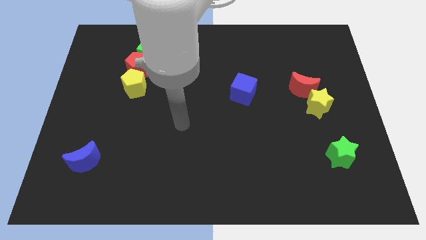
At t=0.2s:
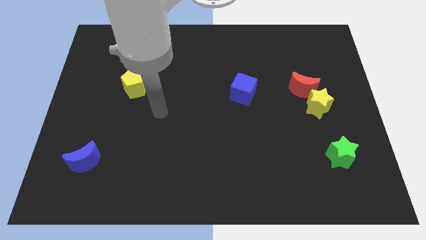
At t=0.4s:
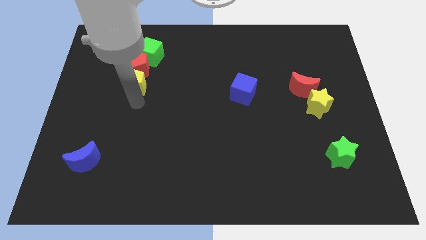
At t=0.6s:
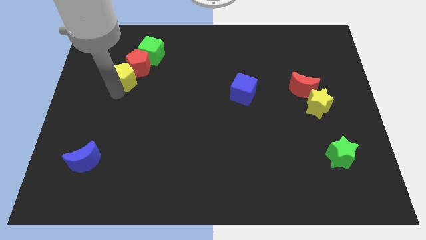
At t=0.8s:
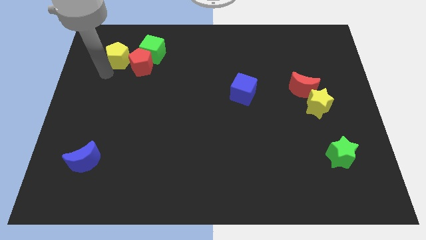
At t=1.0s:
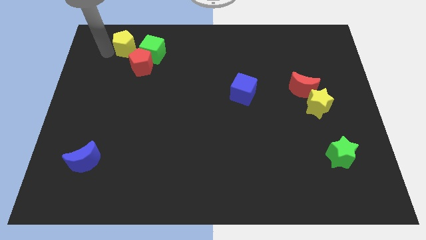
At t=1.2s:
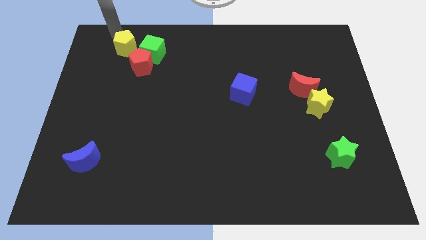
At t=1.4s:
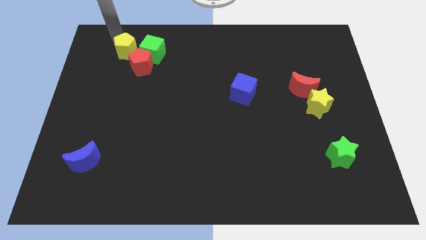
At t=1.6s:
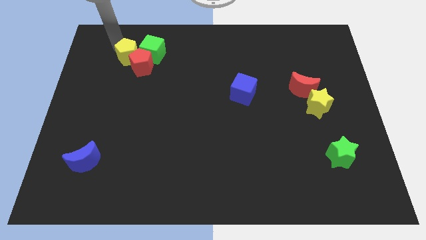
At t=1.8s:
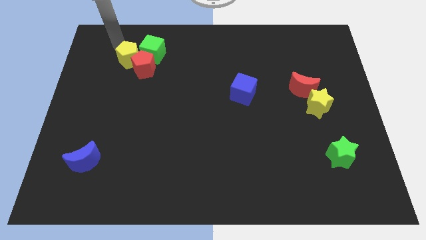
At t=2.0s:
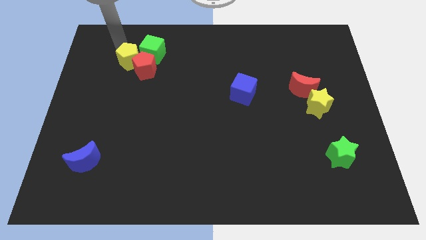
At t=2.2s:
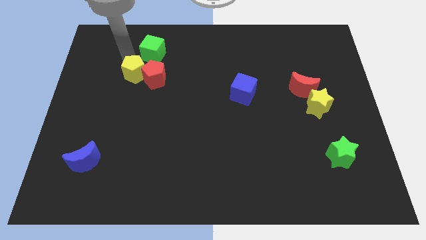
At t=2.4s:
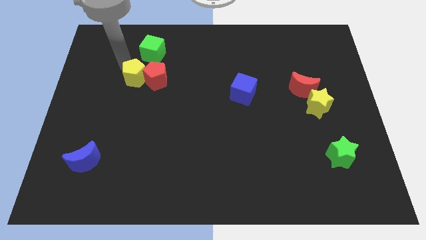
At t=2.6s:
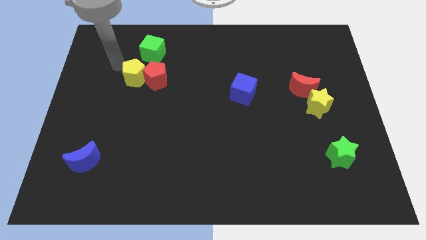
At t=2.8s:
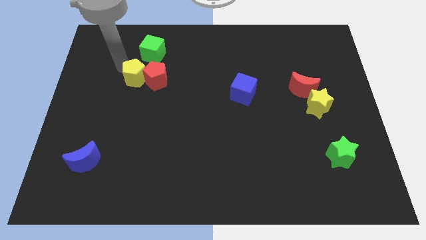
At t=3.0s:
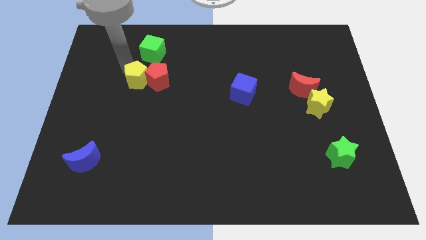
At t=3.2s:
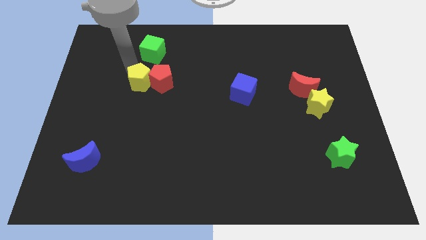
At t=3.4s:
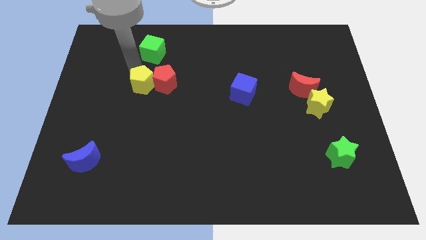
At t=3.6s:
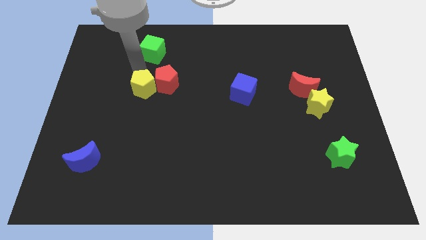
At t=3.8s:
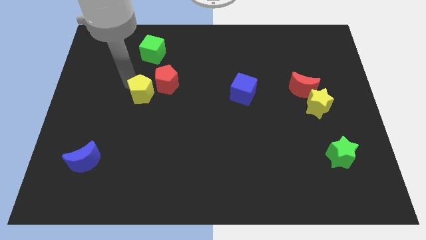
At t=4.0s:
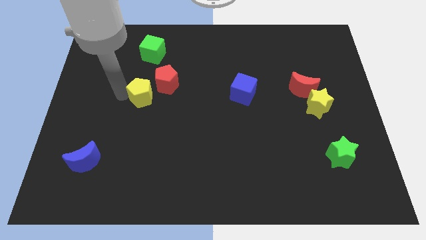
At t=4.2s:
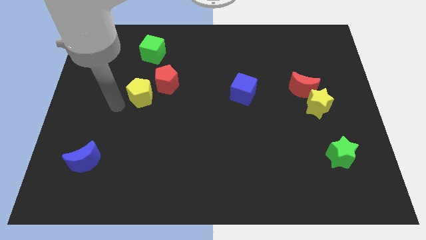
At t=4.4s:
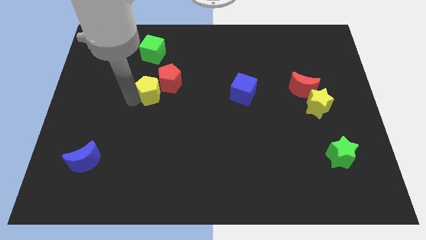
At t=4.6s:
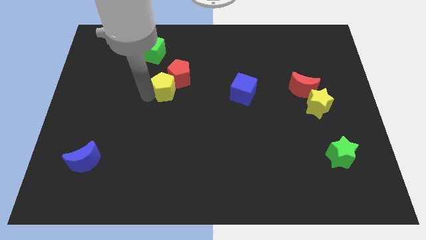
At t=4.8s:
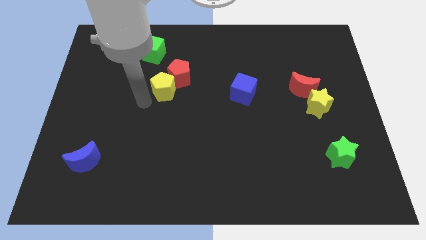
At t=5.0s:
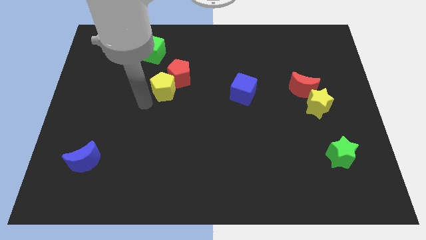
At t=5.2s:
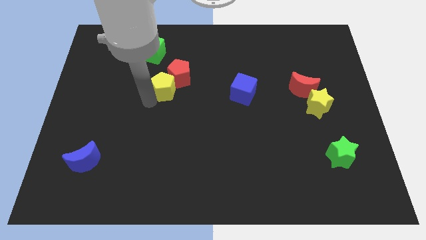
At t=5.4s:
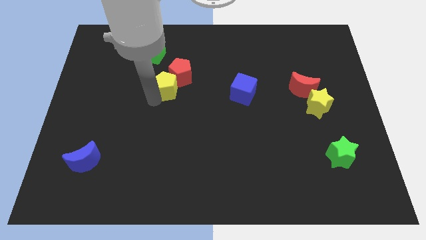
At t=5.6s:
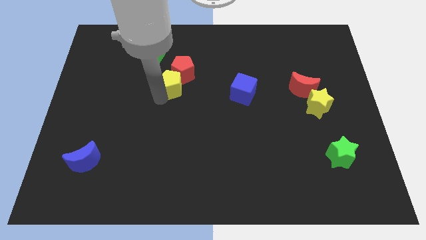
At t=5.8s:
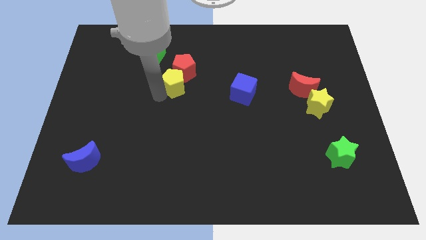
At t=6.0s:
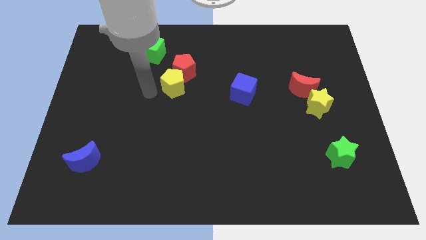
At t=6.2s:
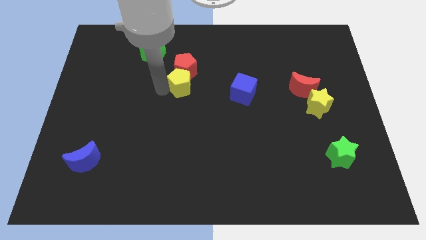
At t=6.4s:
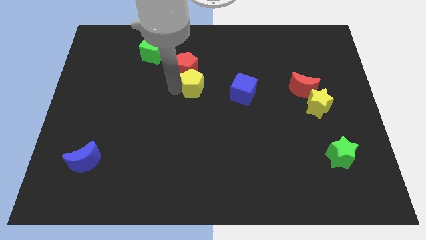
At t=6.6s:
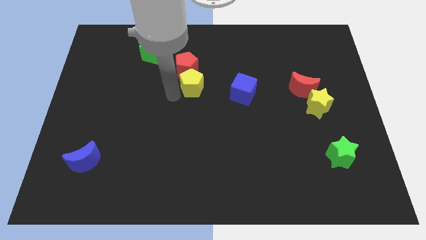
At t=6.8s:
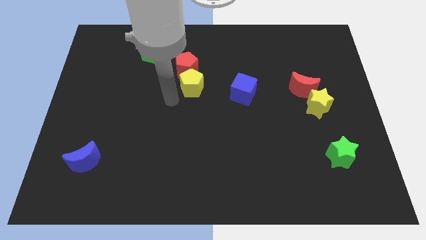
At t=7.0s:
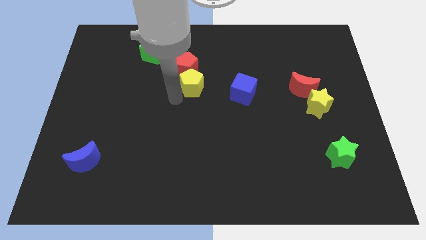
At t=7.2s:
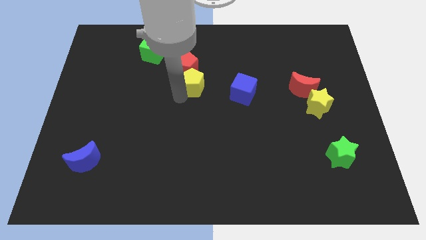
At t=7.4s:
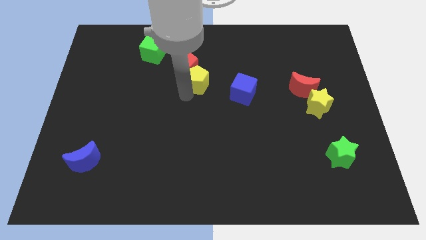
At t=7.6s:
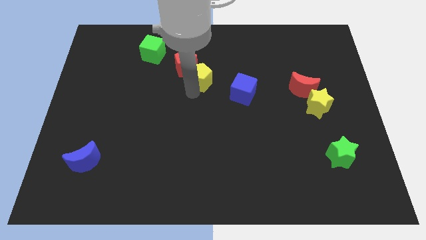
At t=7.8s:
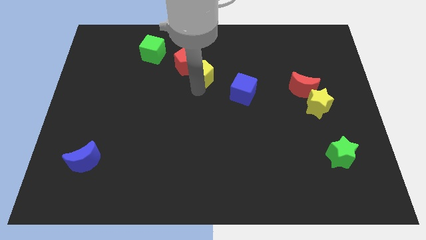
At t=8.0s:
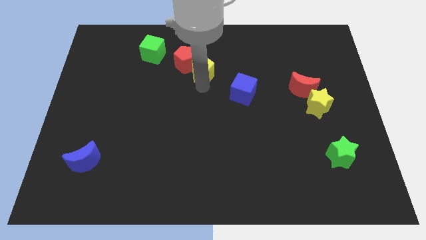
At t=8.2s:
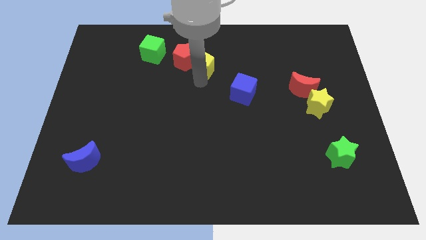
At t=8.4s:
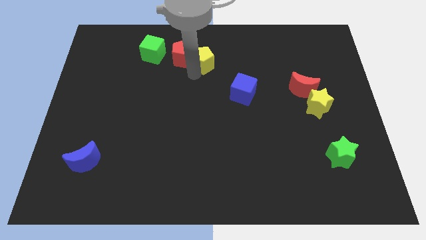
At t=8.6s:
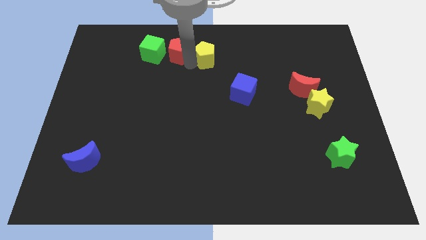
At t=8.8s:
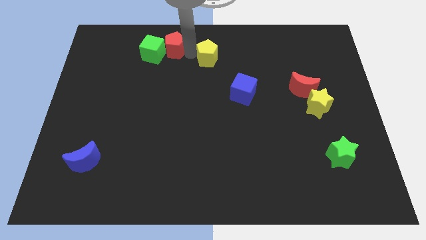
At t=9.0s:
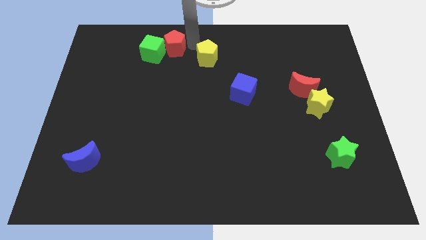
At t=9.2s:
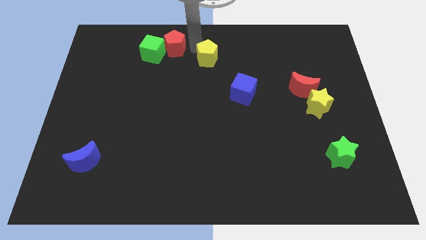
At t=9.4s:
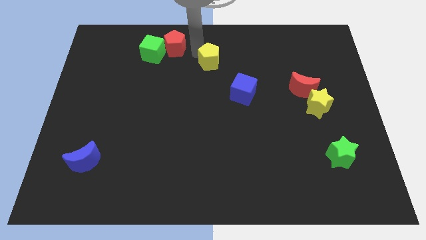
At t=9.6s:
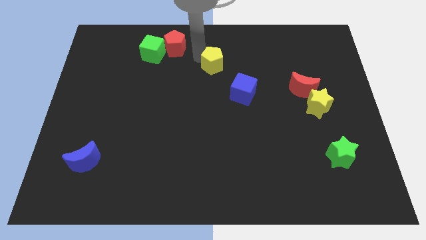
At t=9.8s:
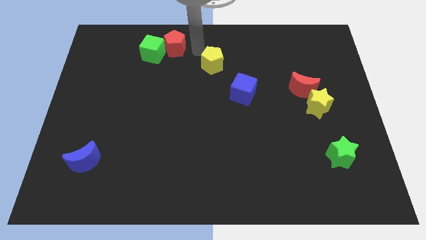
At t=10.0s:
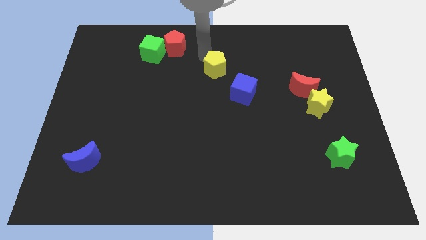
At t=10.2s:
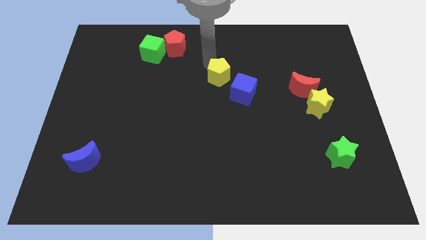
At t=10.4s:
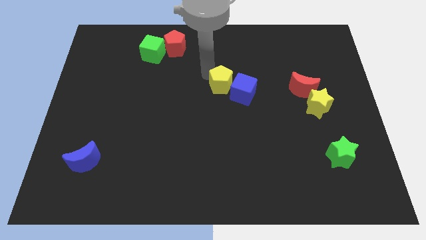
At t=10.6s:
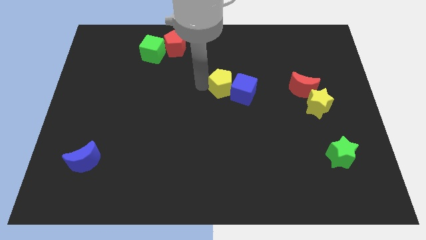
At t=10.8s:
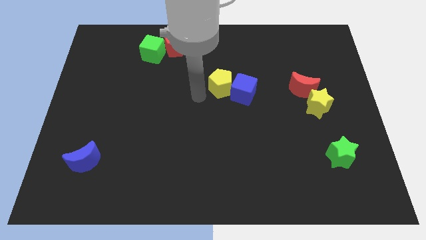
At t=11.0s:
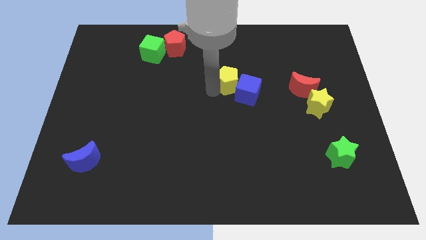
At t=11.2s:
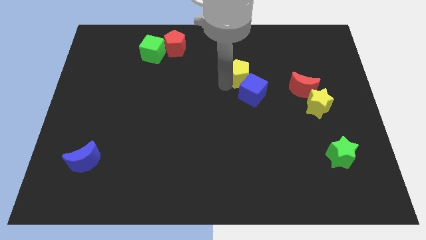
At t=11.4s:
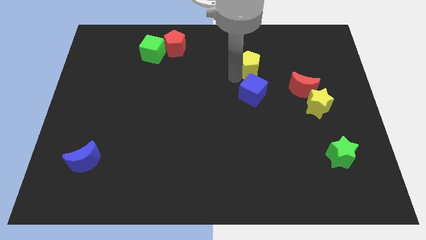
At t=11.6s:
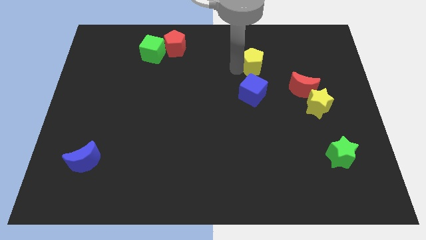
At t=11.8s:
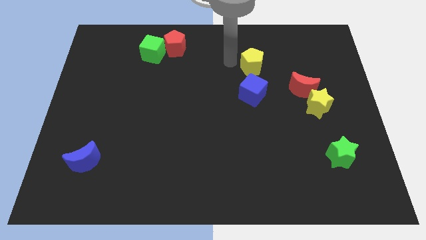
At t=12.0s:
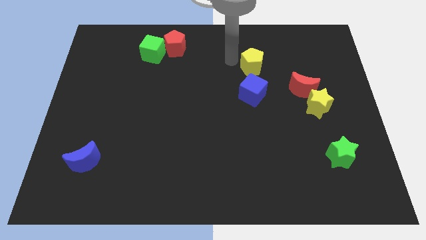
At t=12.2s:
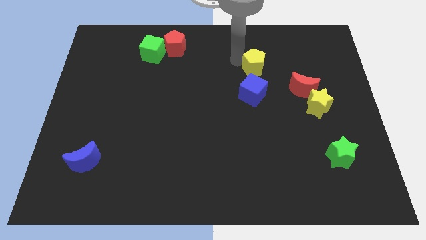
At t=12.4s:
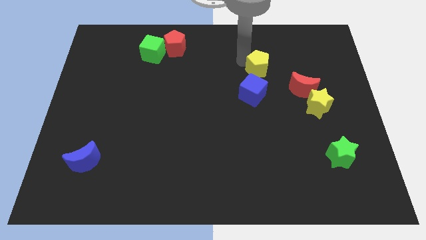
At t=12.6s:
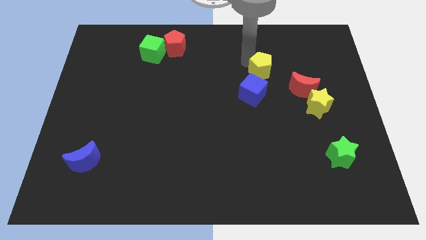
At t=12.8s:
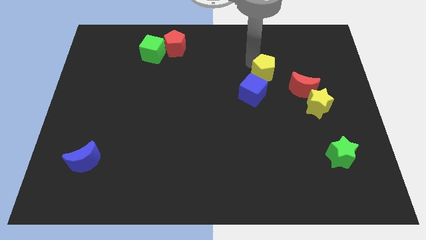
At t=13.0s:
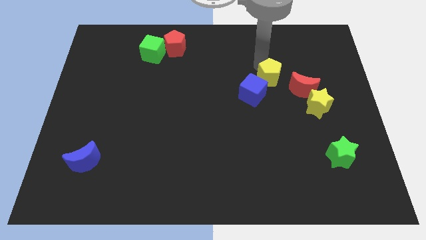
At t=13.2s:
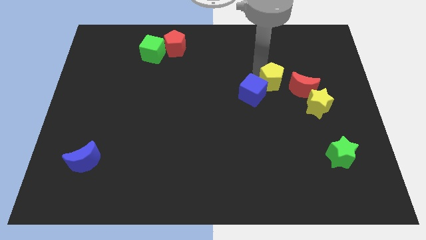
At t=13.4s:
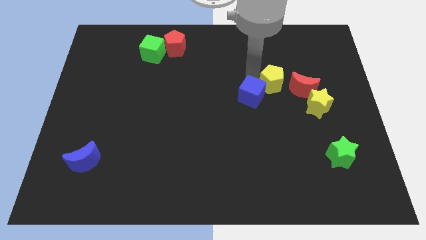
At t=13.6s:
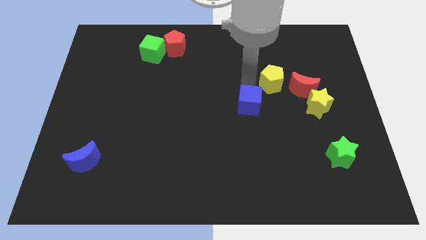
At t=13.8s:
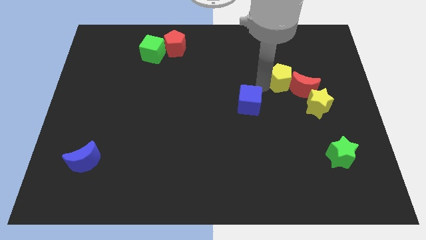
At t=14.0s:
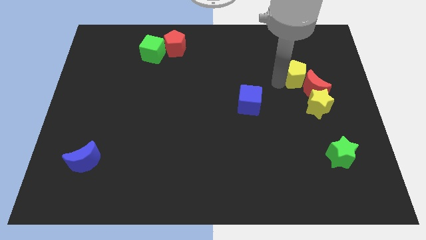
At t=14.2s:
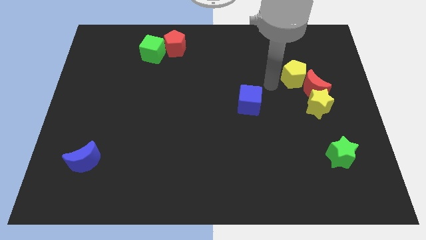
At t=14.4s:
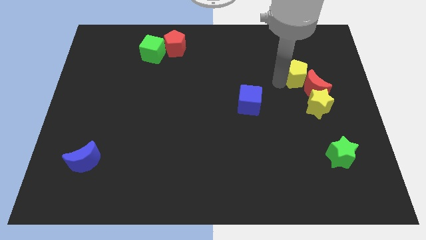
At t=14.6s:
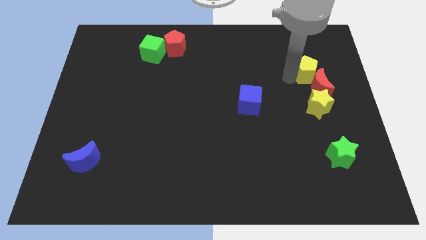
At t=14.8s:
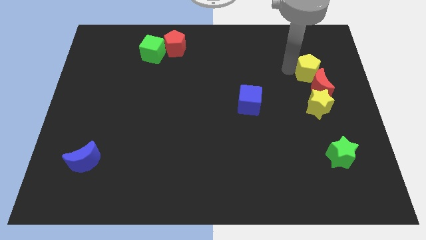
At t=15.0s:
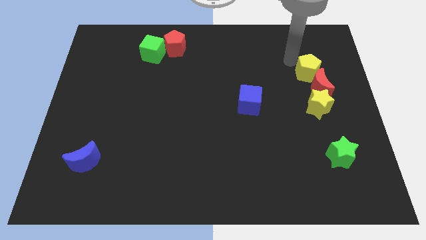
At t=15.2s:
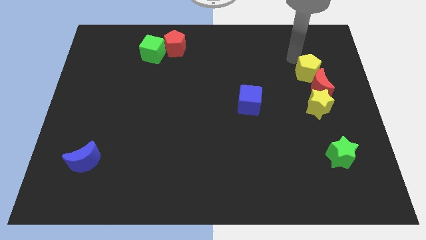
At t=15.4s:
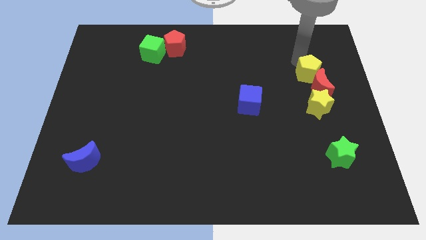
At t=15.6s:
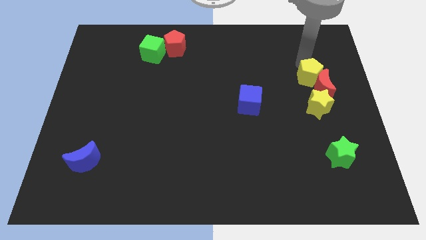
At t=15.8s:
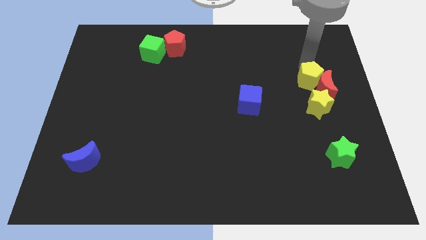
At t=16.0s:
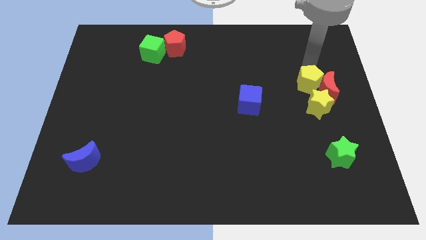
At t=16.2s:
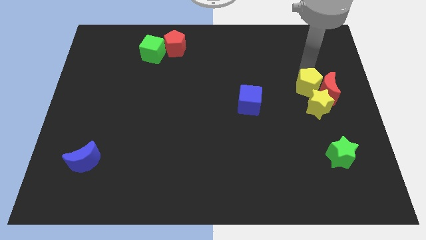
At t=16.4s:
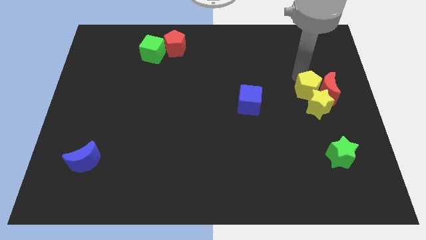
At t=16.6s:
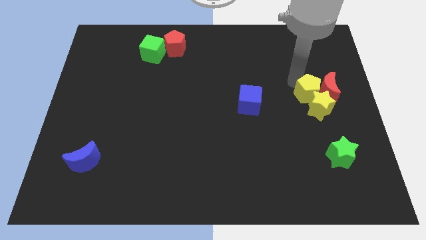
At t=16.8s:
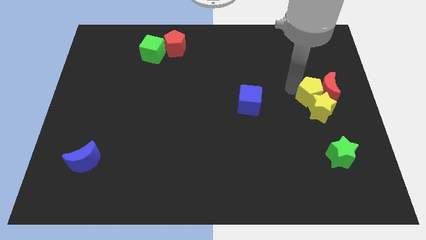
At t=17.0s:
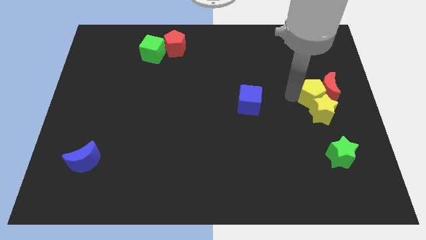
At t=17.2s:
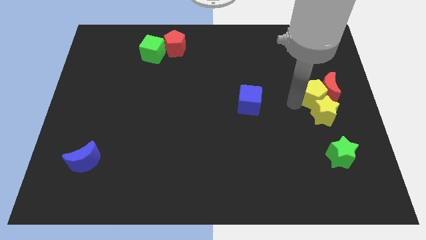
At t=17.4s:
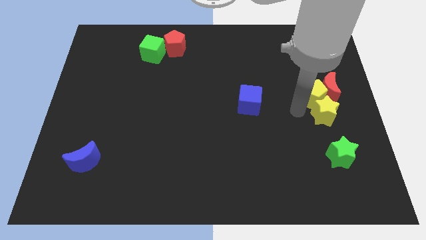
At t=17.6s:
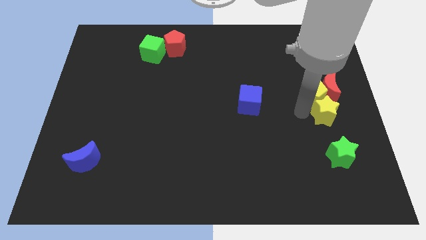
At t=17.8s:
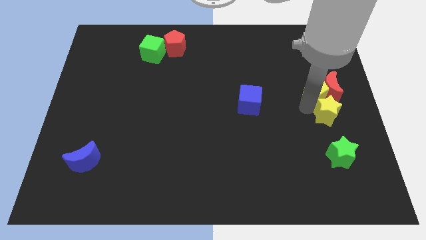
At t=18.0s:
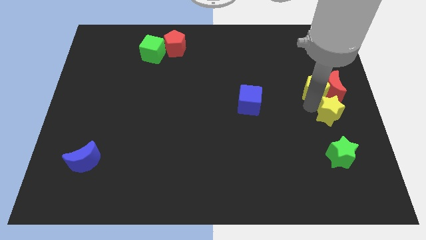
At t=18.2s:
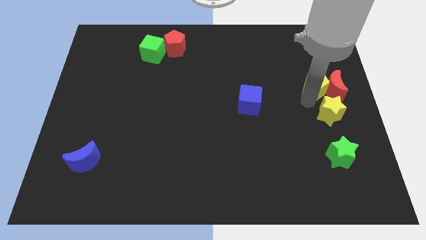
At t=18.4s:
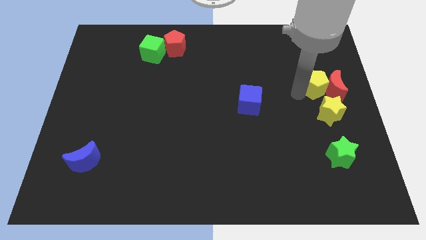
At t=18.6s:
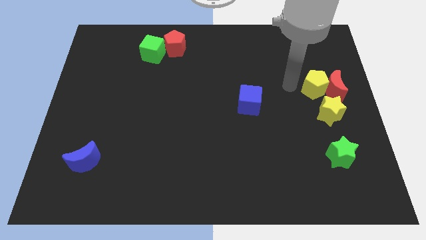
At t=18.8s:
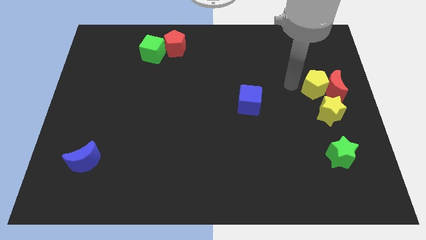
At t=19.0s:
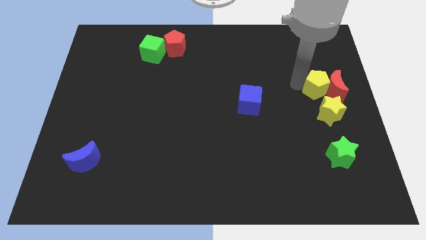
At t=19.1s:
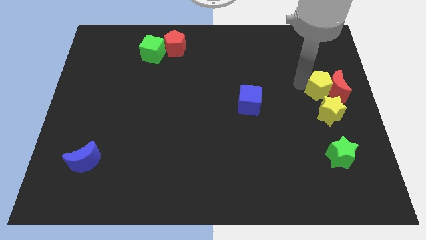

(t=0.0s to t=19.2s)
move the yellow pentagon to the right side
